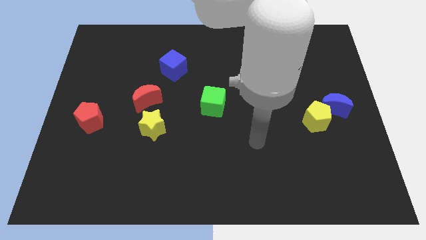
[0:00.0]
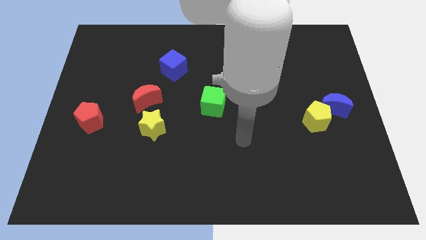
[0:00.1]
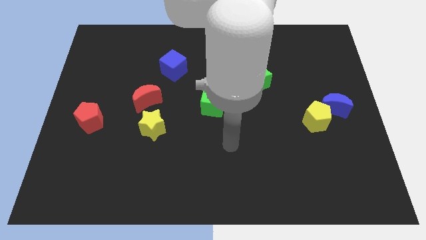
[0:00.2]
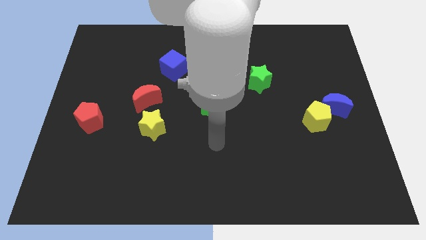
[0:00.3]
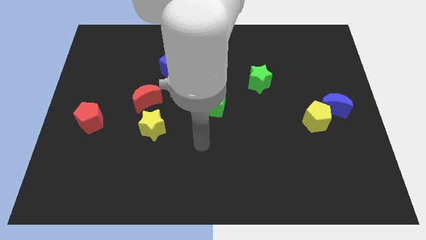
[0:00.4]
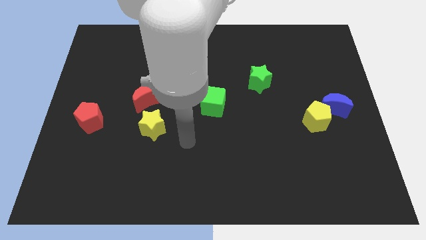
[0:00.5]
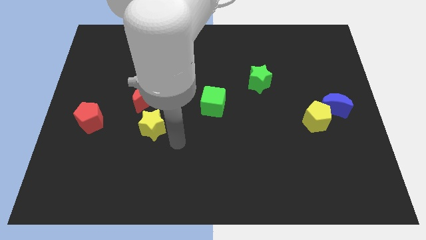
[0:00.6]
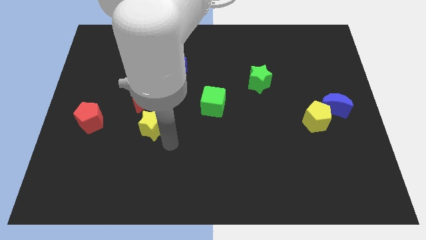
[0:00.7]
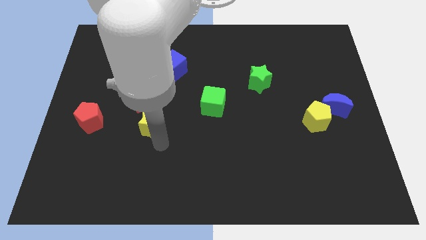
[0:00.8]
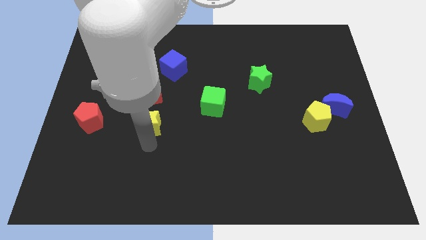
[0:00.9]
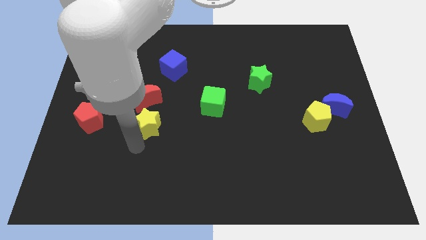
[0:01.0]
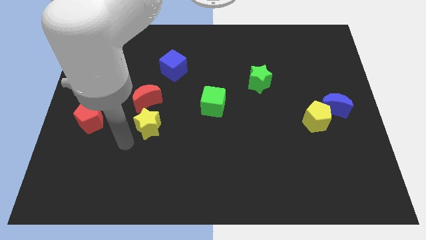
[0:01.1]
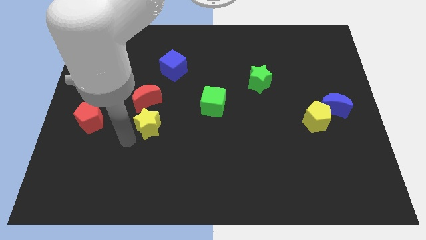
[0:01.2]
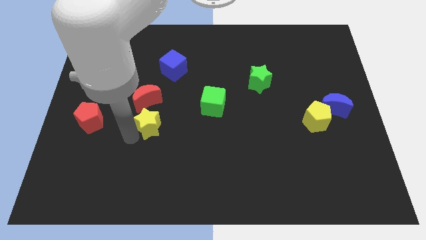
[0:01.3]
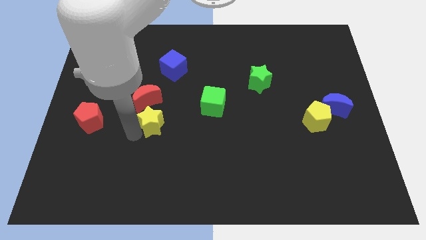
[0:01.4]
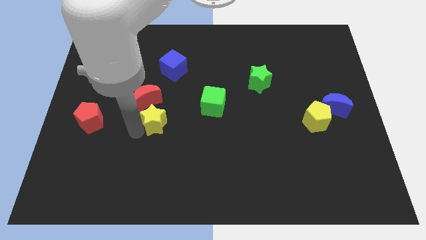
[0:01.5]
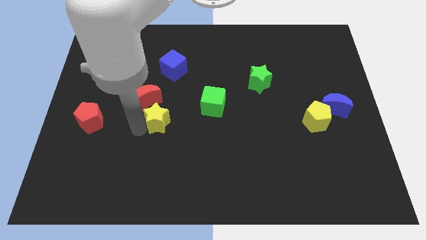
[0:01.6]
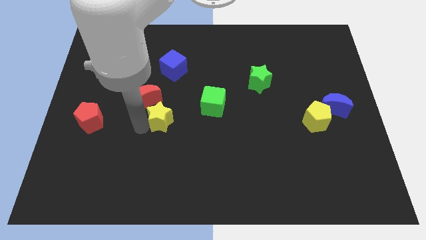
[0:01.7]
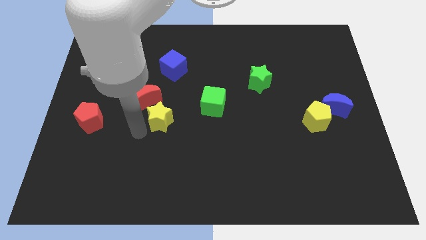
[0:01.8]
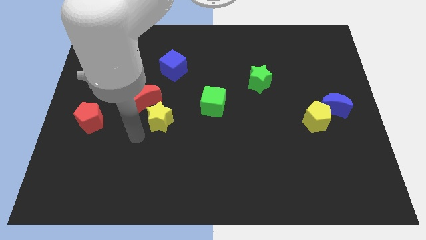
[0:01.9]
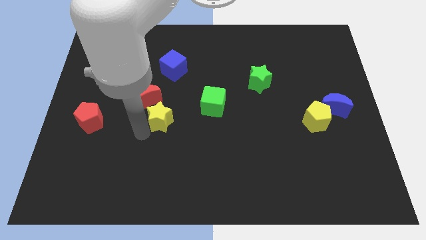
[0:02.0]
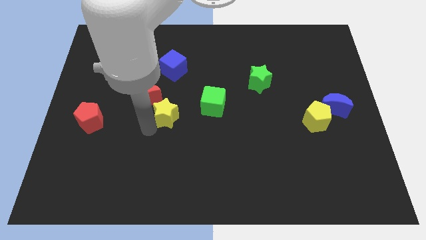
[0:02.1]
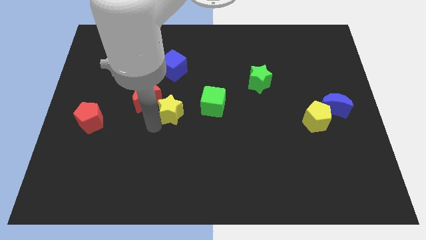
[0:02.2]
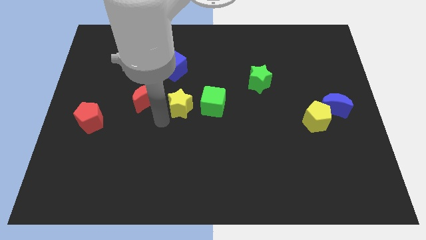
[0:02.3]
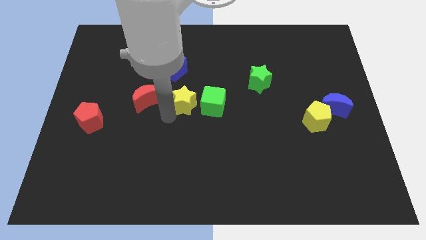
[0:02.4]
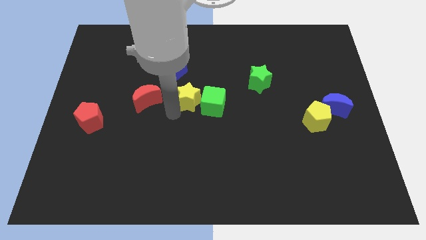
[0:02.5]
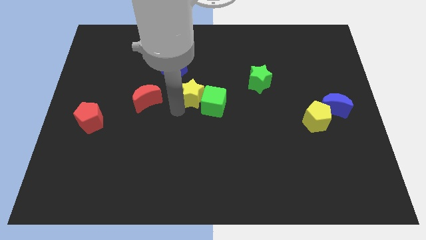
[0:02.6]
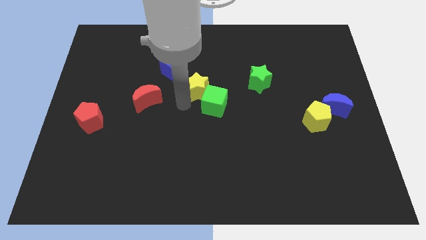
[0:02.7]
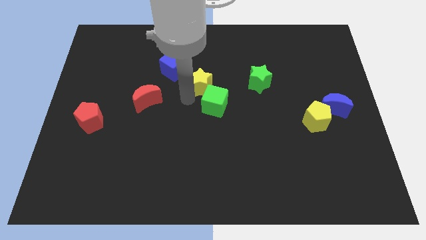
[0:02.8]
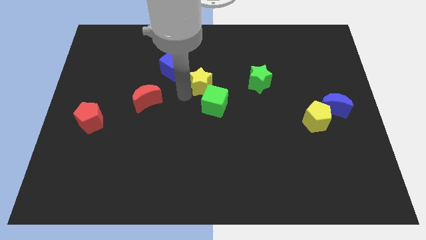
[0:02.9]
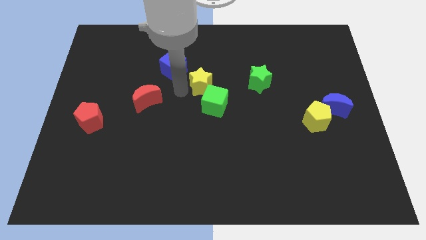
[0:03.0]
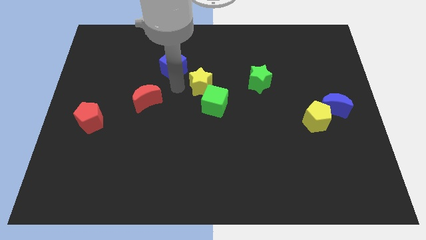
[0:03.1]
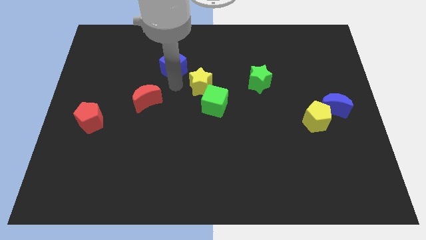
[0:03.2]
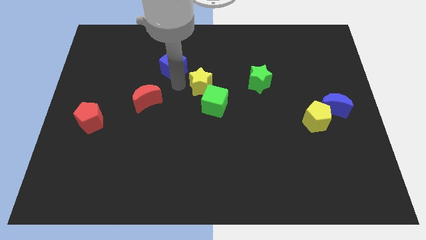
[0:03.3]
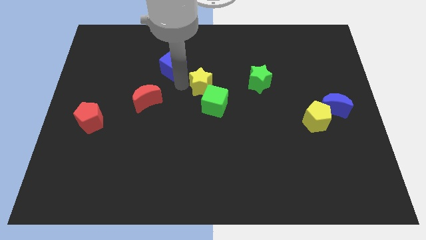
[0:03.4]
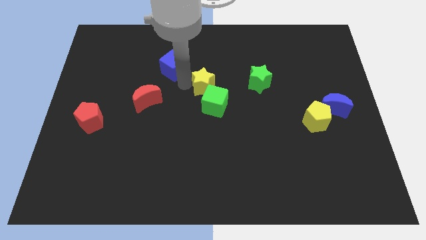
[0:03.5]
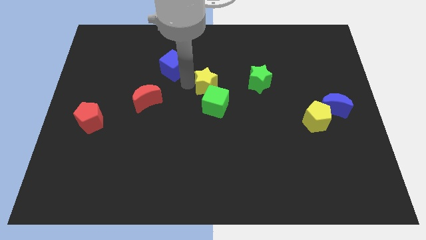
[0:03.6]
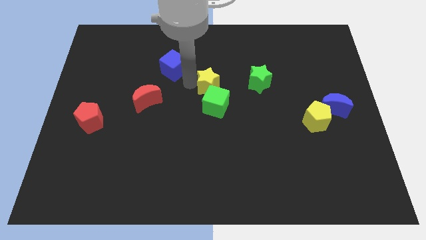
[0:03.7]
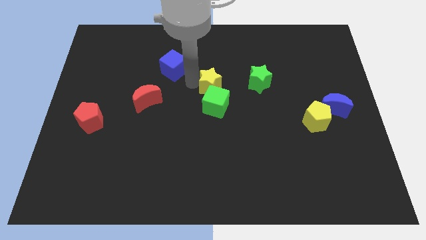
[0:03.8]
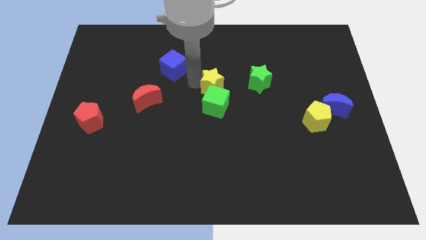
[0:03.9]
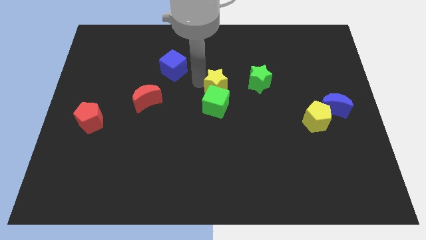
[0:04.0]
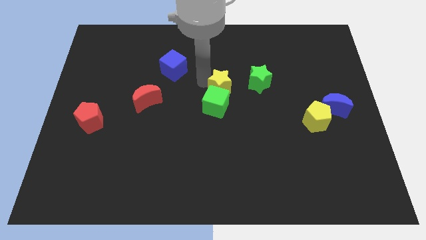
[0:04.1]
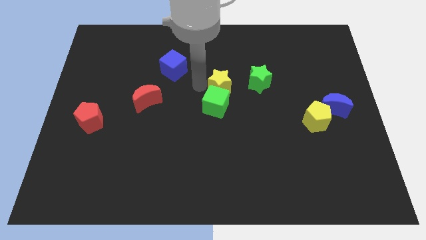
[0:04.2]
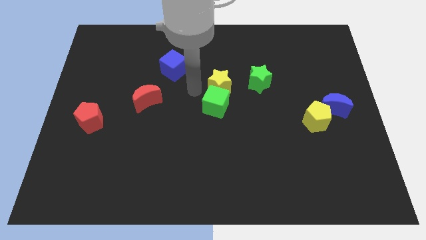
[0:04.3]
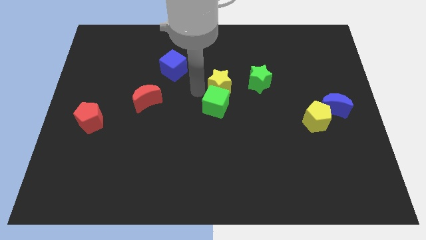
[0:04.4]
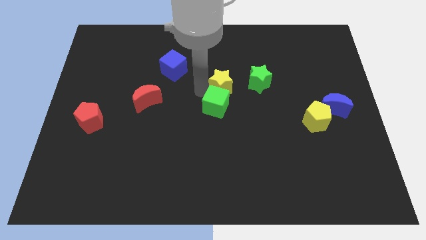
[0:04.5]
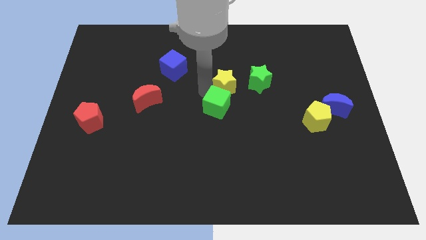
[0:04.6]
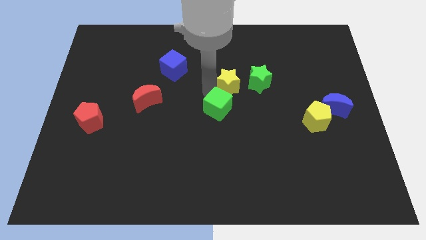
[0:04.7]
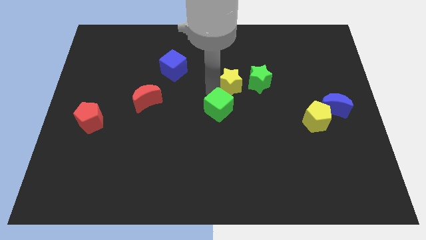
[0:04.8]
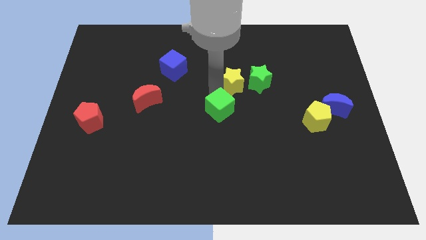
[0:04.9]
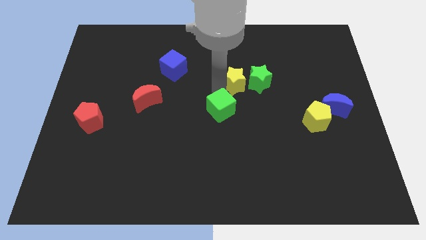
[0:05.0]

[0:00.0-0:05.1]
slide the yellow star next to the green star

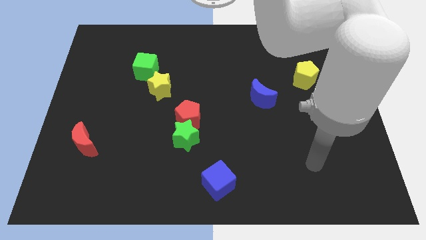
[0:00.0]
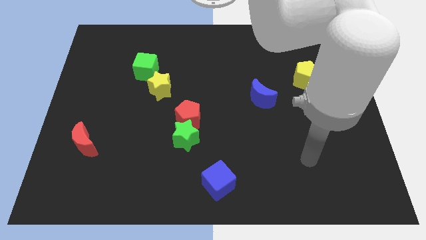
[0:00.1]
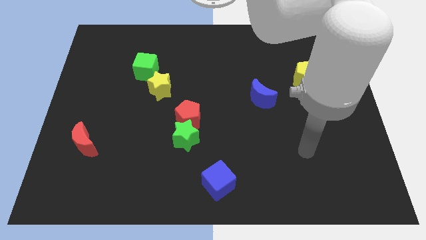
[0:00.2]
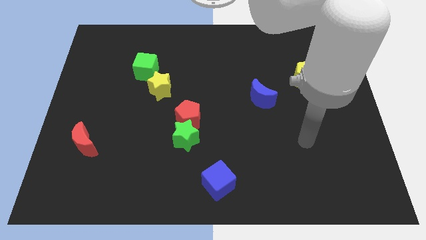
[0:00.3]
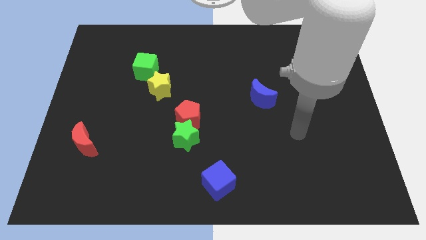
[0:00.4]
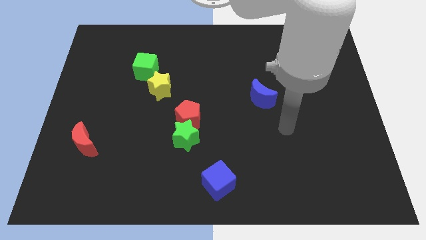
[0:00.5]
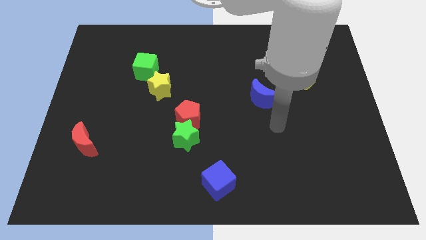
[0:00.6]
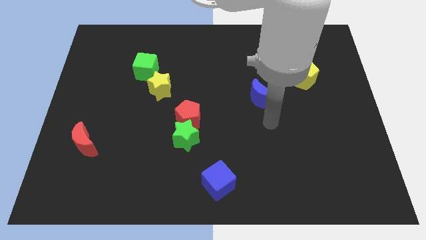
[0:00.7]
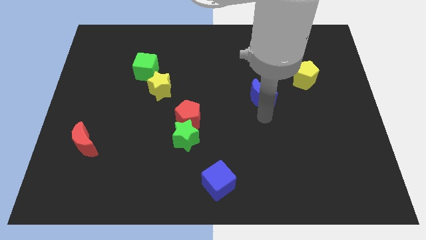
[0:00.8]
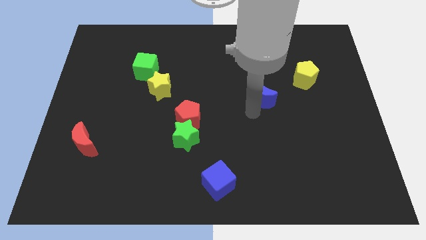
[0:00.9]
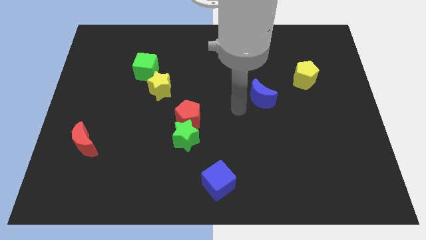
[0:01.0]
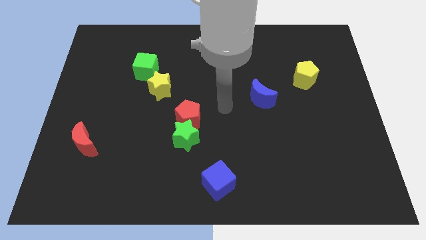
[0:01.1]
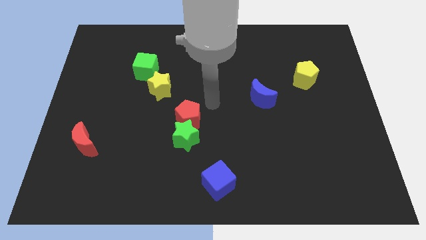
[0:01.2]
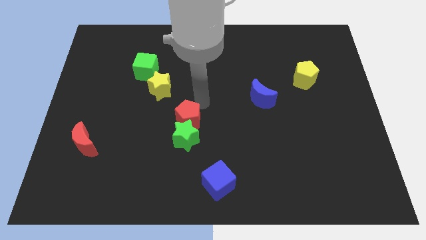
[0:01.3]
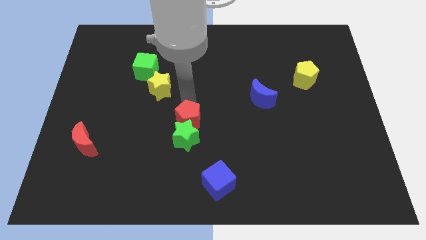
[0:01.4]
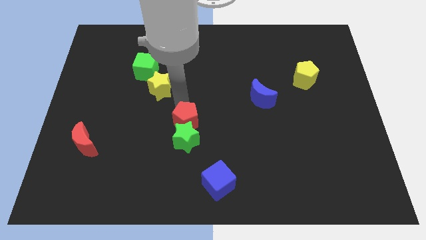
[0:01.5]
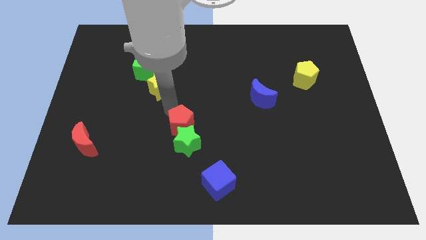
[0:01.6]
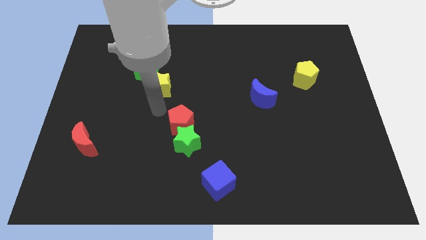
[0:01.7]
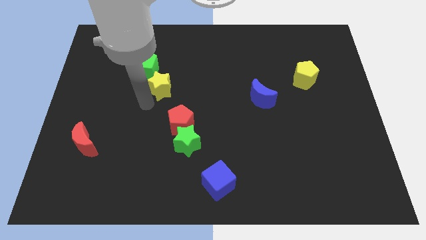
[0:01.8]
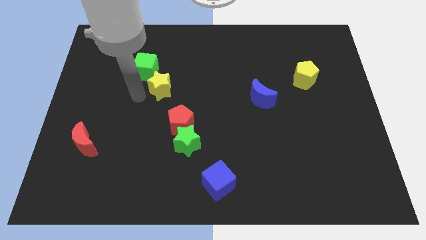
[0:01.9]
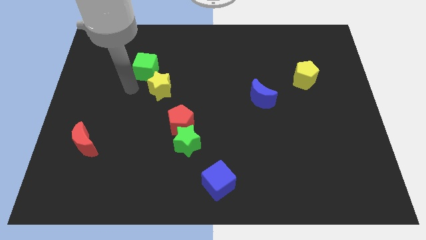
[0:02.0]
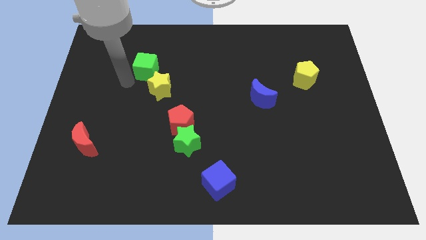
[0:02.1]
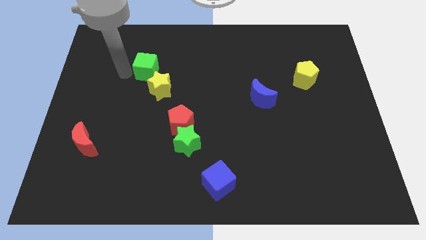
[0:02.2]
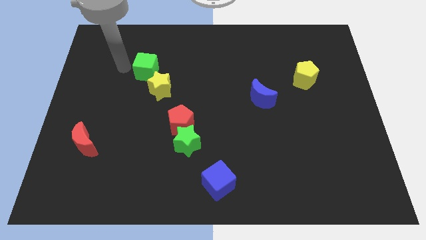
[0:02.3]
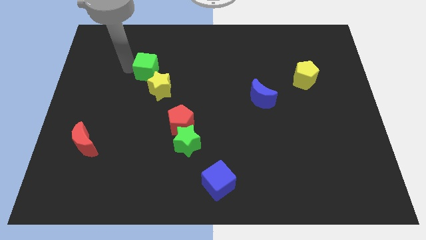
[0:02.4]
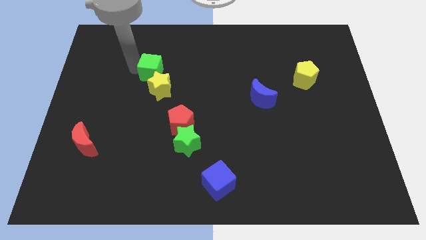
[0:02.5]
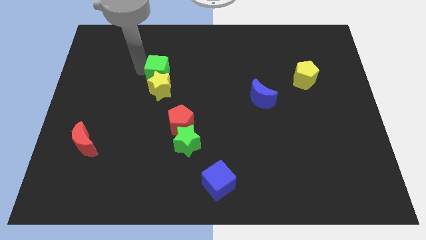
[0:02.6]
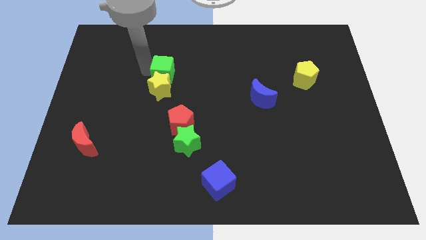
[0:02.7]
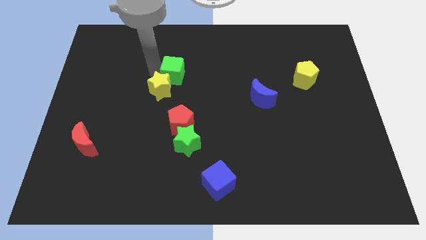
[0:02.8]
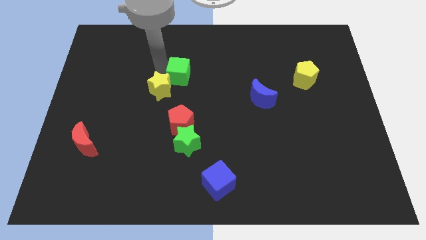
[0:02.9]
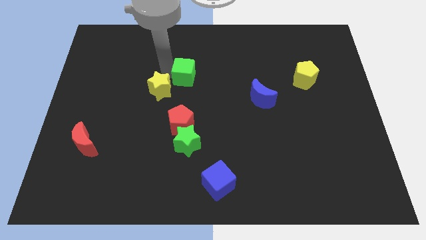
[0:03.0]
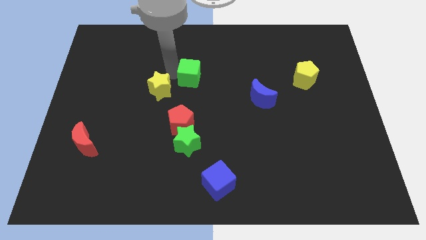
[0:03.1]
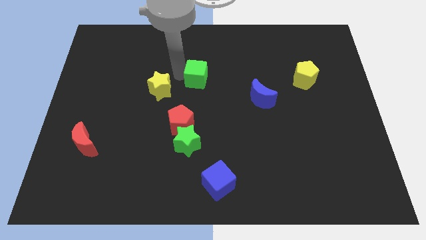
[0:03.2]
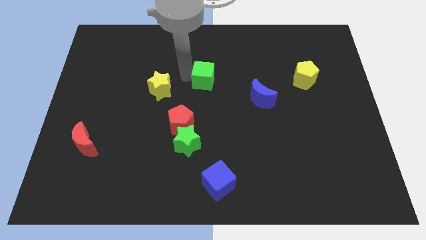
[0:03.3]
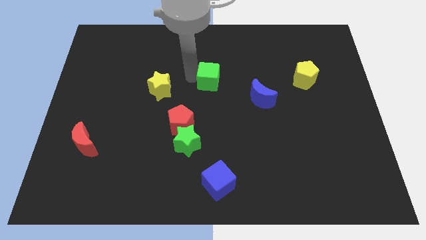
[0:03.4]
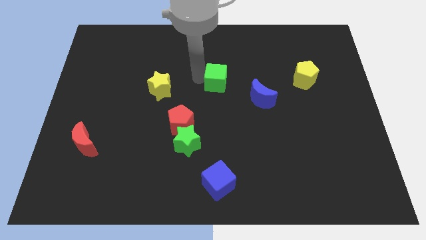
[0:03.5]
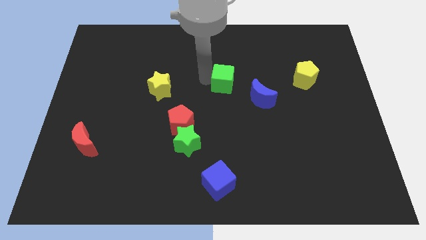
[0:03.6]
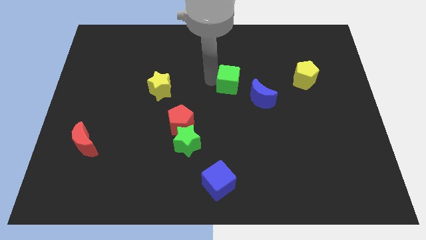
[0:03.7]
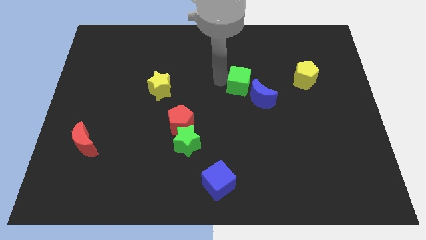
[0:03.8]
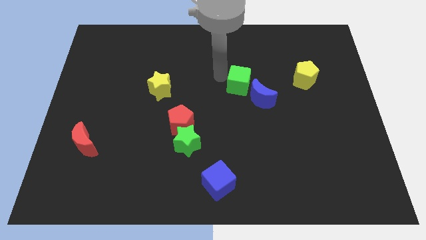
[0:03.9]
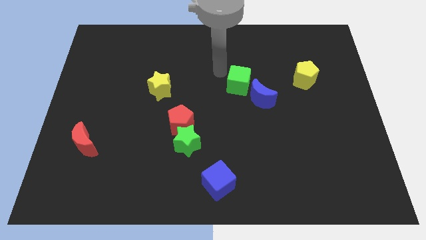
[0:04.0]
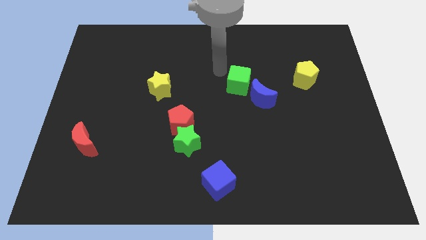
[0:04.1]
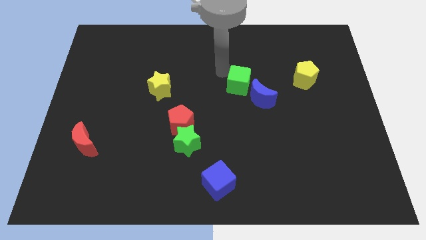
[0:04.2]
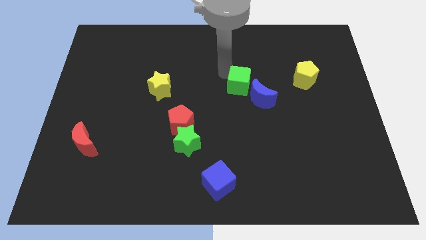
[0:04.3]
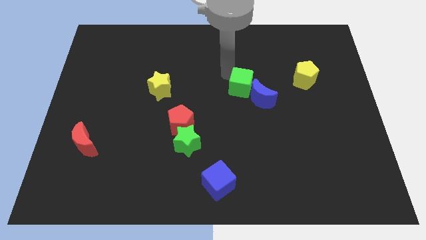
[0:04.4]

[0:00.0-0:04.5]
move the green cube next to the blue moon
